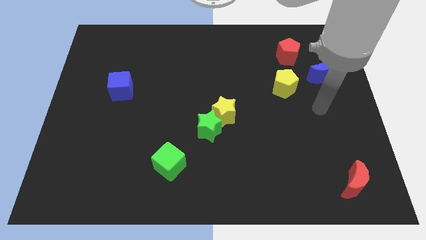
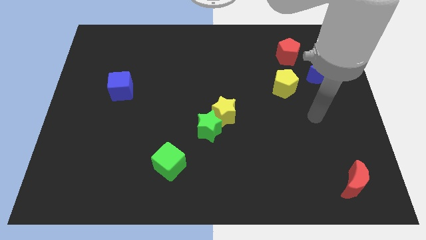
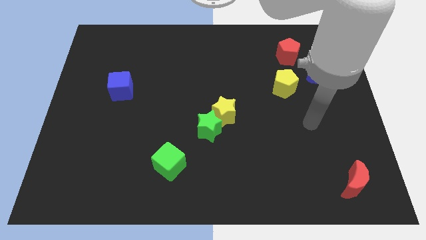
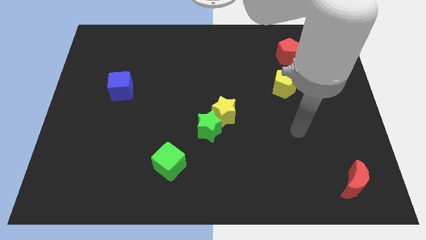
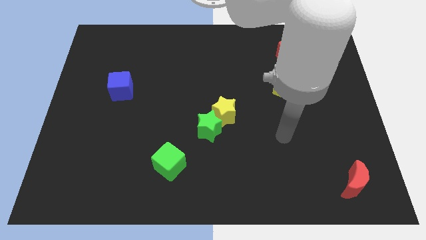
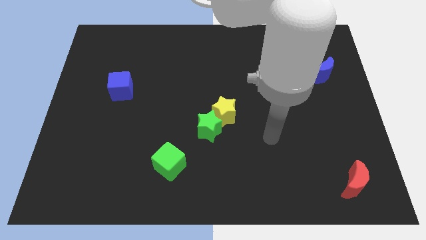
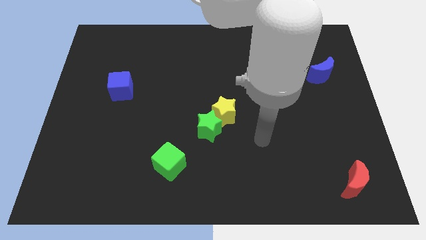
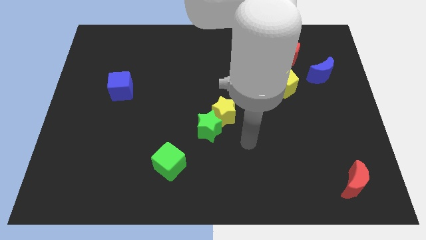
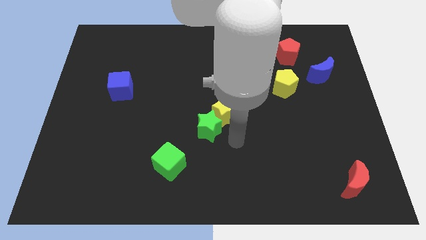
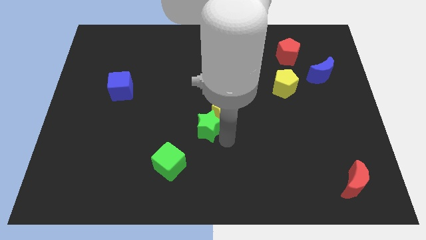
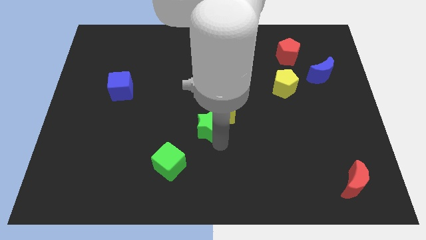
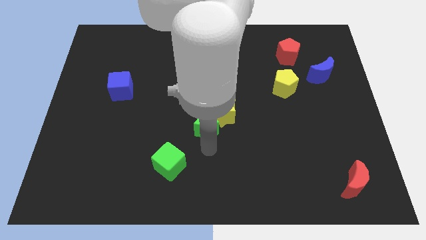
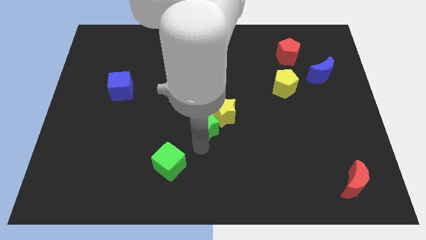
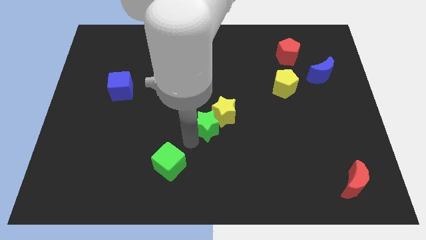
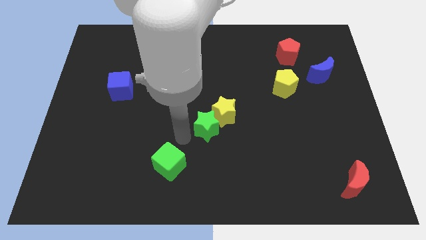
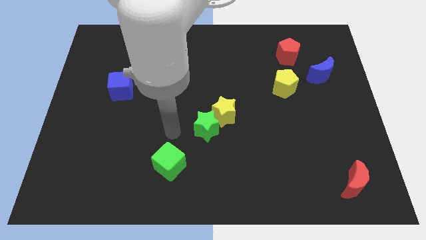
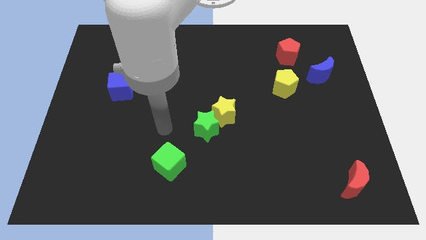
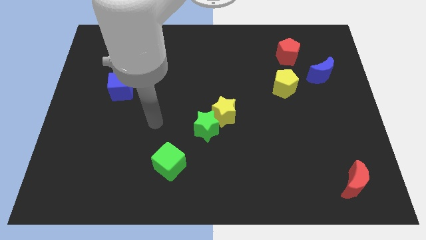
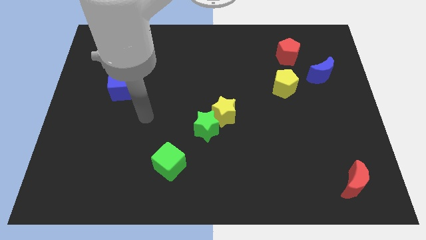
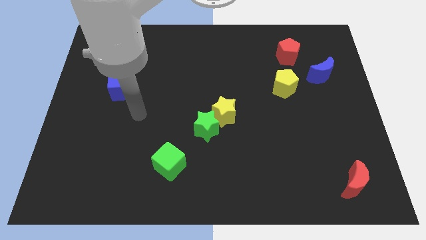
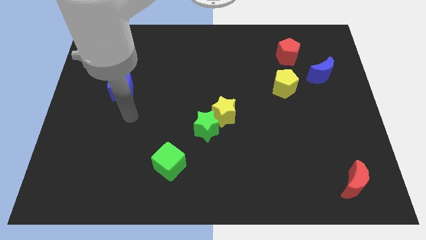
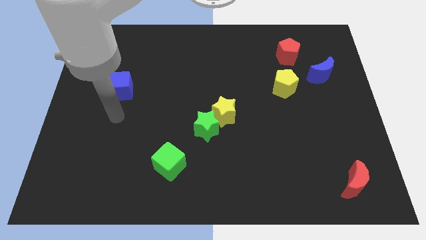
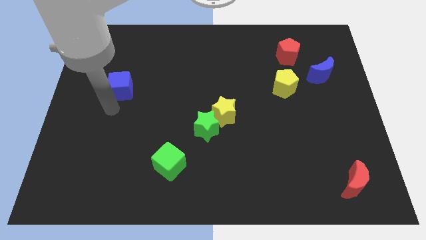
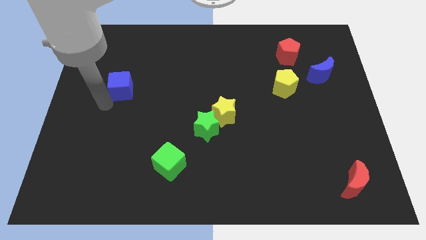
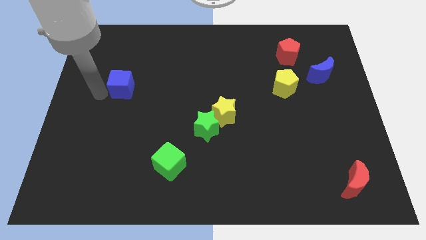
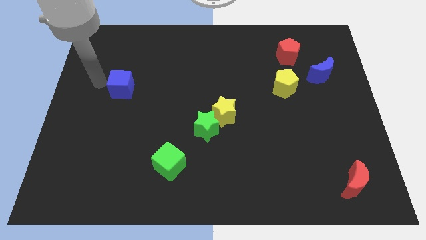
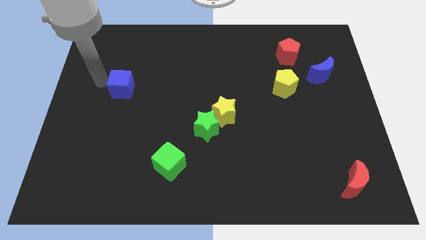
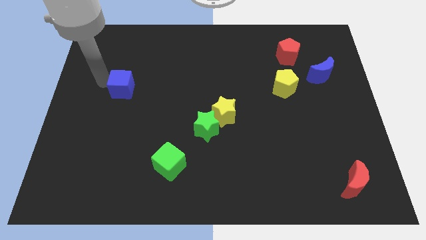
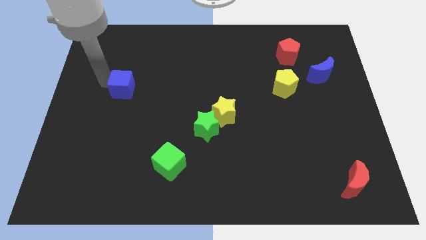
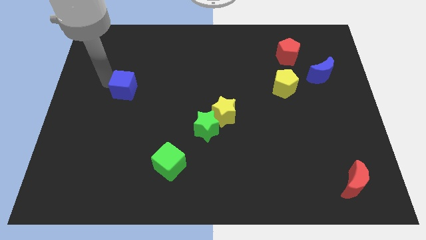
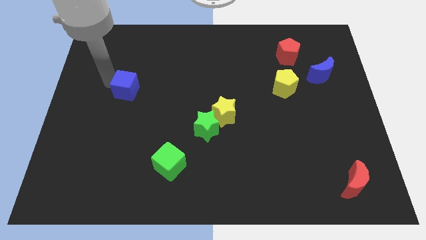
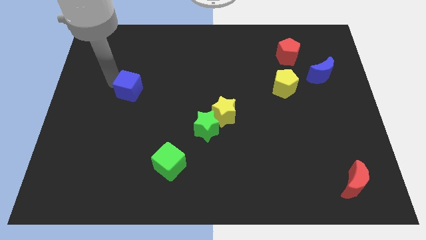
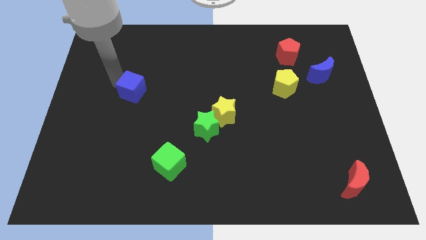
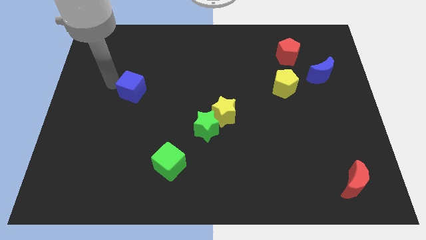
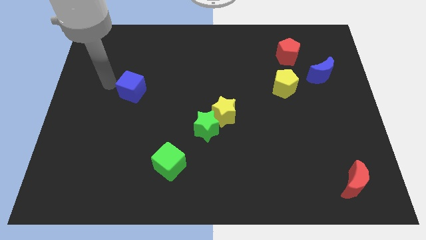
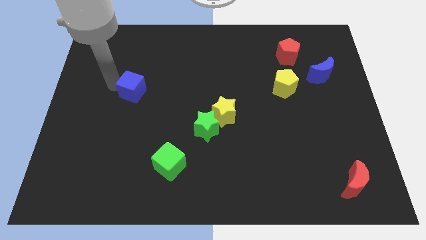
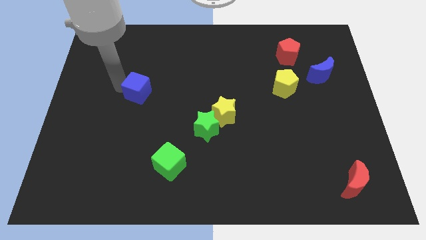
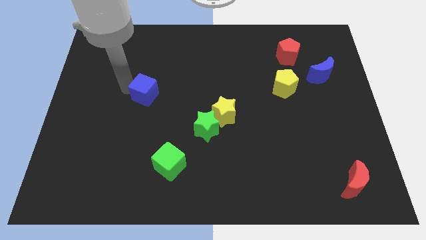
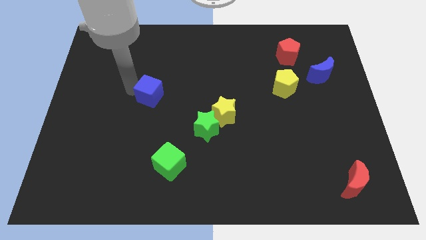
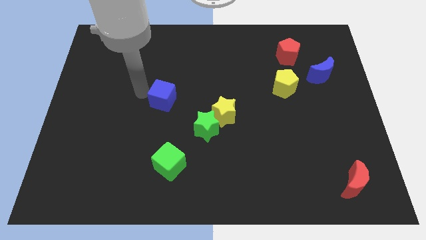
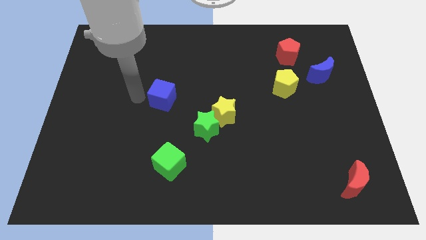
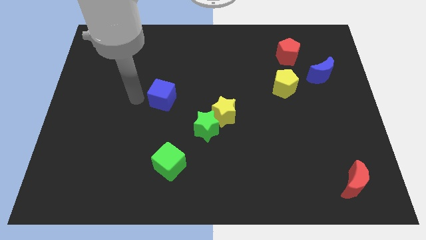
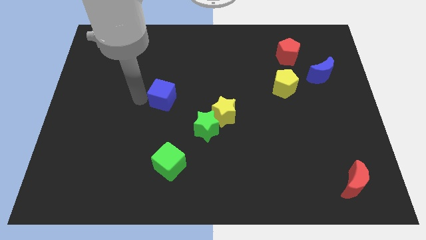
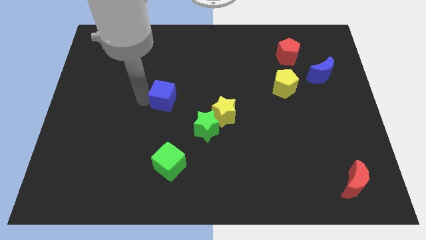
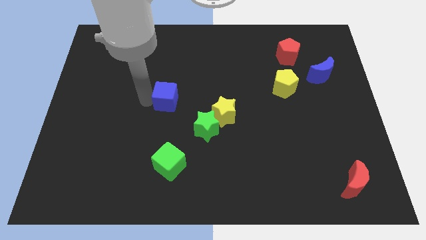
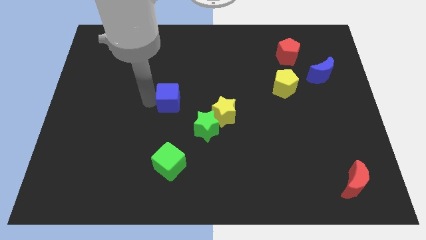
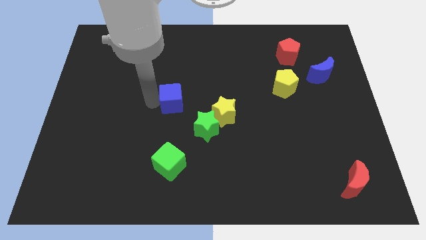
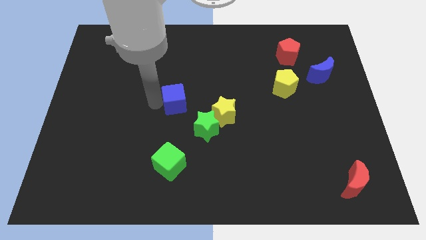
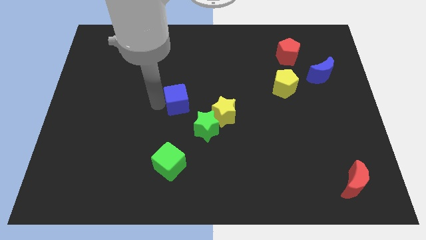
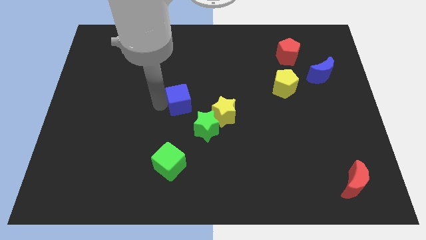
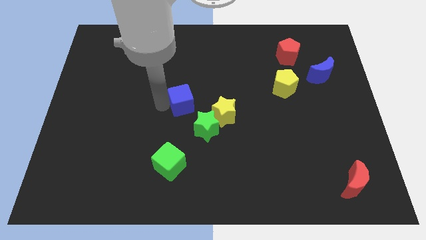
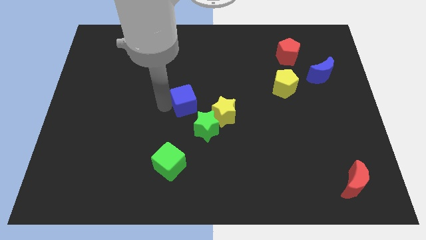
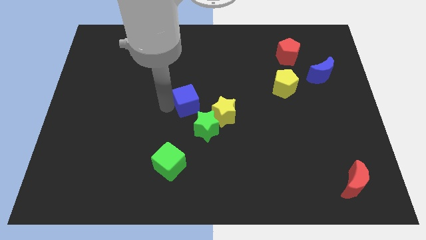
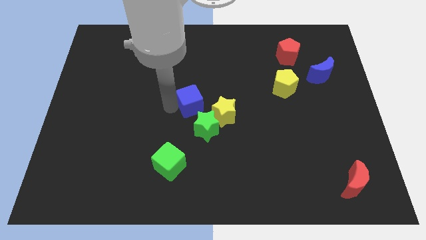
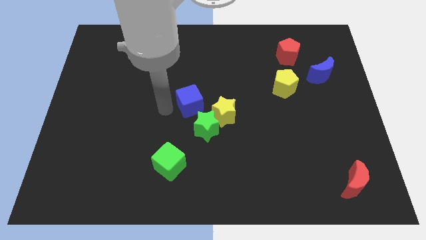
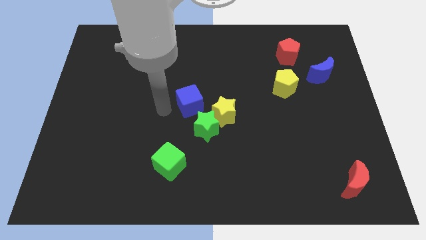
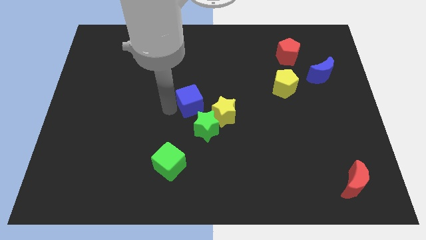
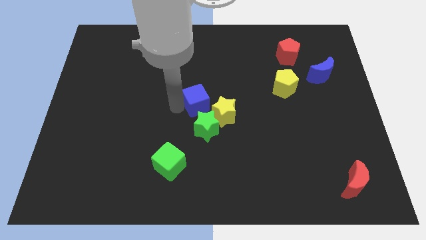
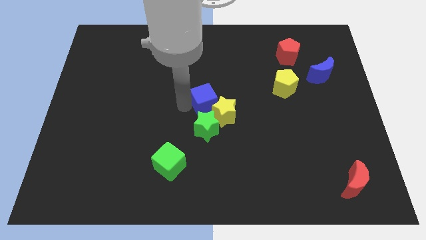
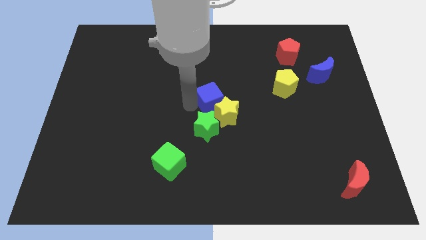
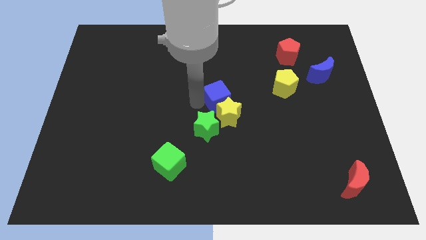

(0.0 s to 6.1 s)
move the blue cube diagonally up and to the right of the green star
